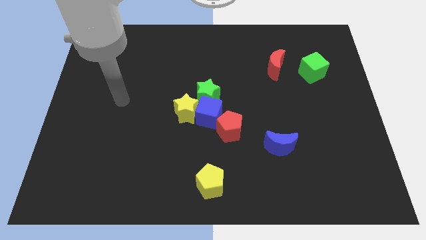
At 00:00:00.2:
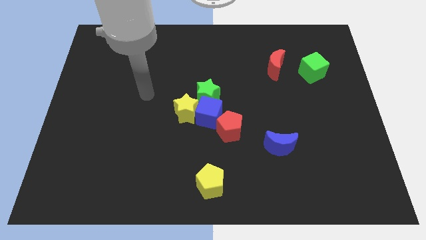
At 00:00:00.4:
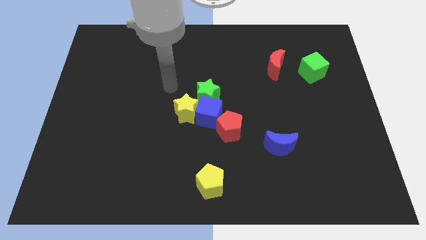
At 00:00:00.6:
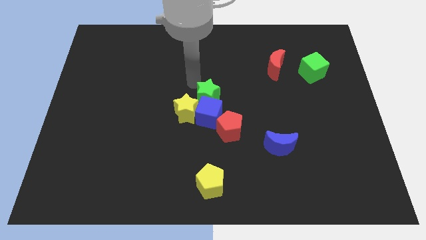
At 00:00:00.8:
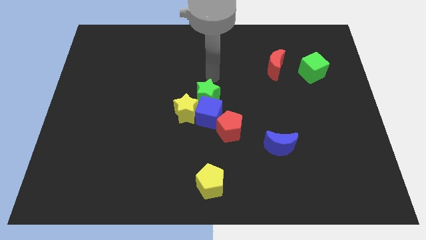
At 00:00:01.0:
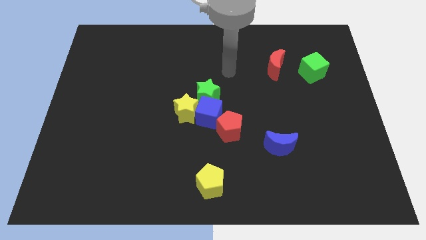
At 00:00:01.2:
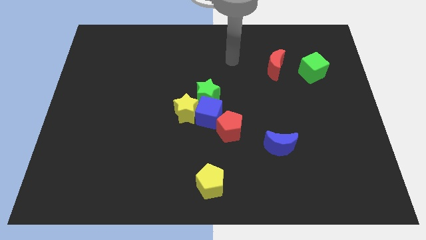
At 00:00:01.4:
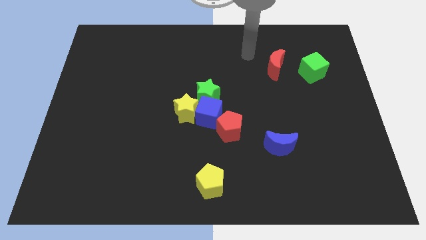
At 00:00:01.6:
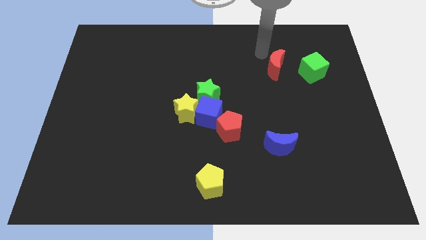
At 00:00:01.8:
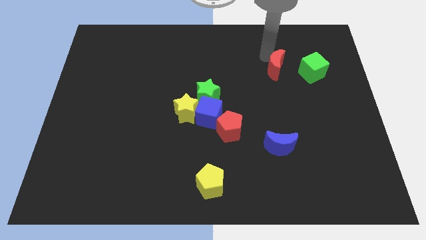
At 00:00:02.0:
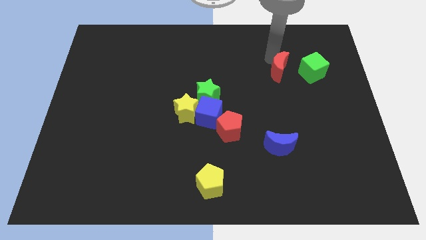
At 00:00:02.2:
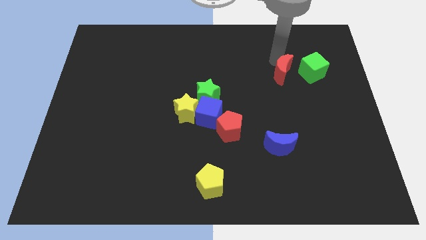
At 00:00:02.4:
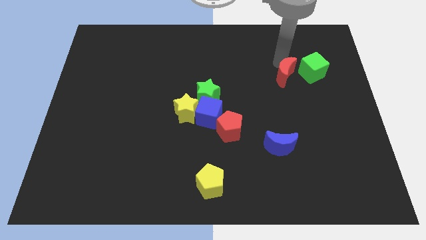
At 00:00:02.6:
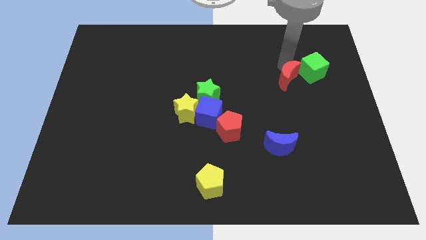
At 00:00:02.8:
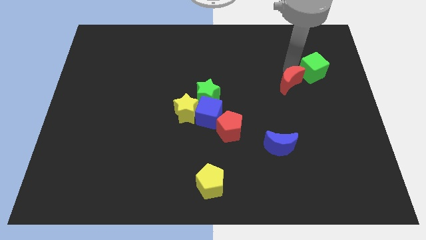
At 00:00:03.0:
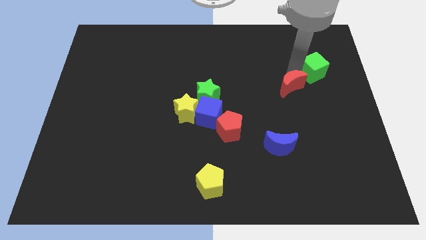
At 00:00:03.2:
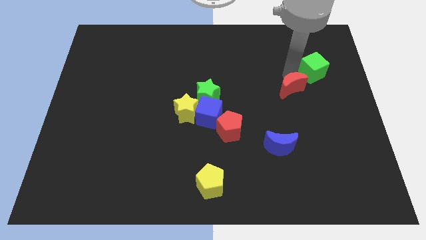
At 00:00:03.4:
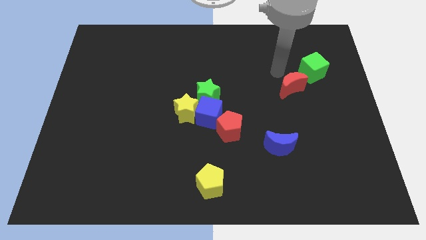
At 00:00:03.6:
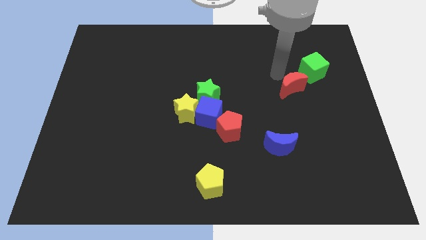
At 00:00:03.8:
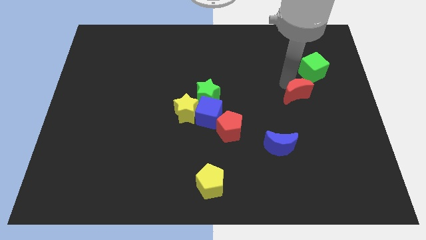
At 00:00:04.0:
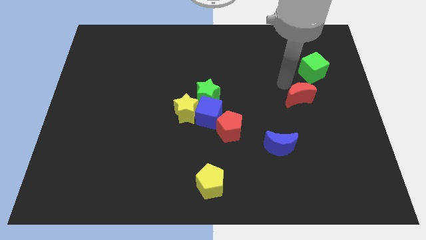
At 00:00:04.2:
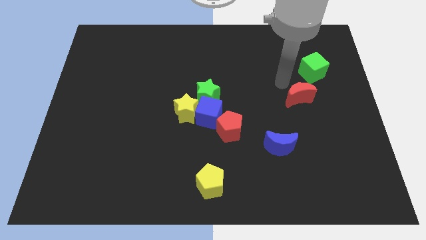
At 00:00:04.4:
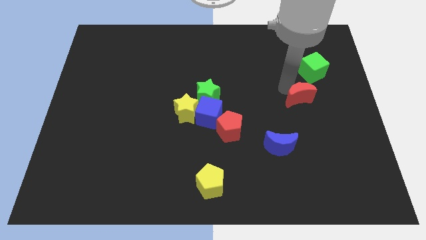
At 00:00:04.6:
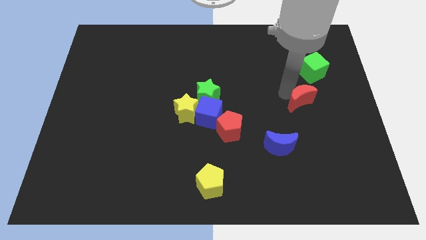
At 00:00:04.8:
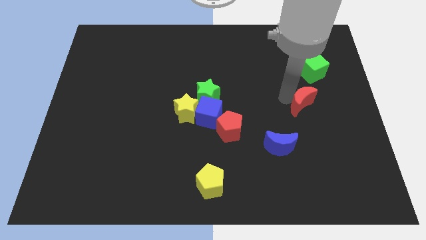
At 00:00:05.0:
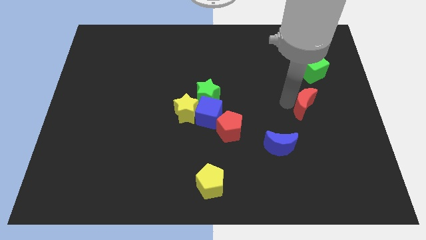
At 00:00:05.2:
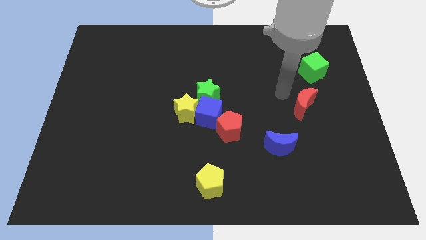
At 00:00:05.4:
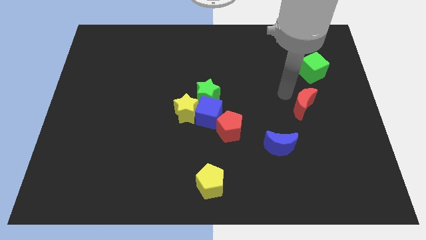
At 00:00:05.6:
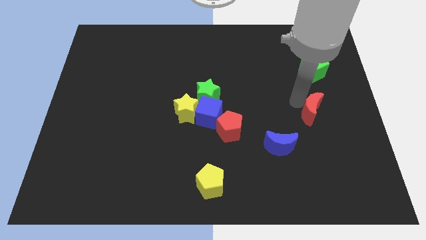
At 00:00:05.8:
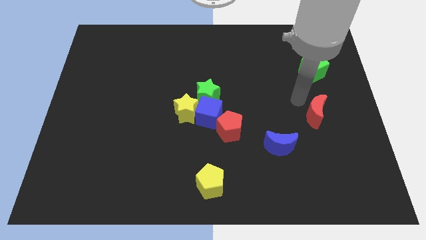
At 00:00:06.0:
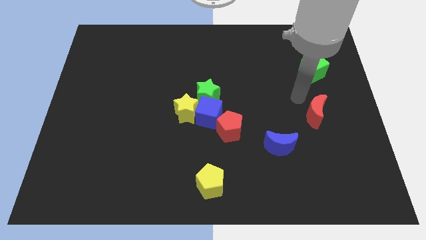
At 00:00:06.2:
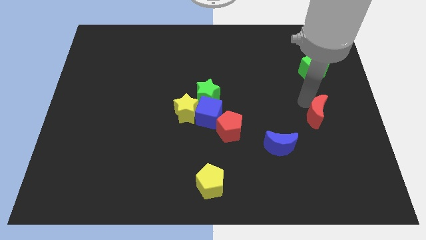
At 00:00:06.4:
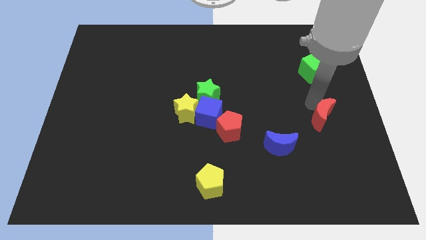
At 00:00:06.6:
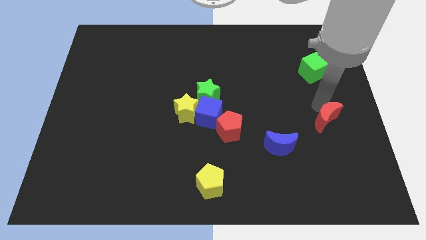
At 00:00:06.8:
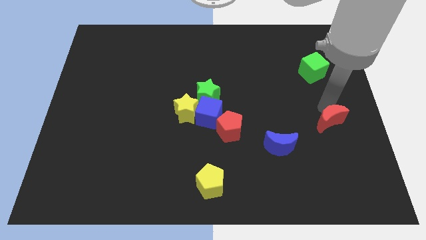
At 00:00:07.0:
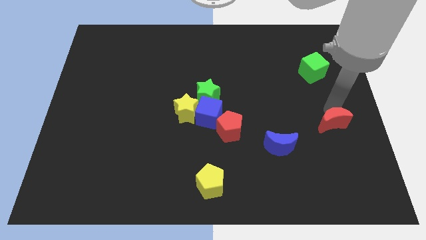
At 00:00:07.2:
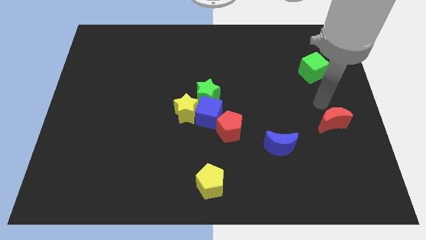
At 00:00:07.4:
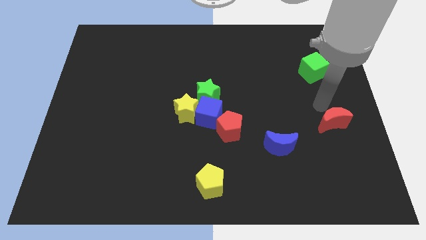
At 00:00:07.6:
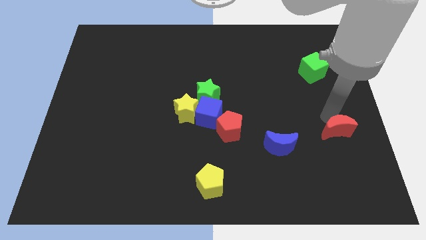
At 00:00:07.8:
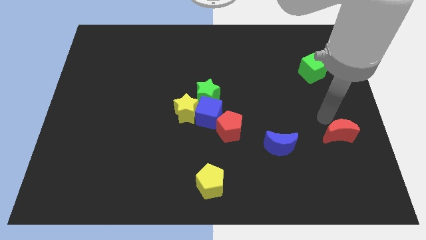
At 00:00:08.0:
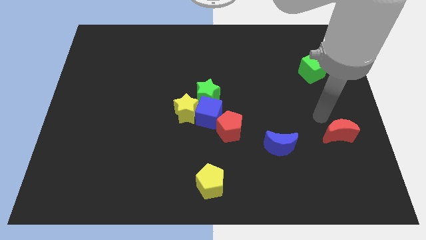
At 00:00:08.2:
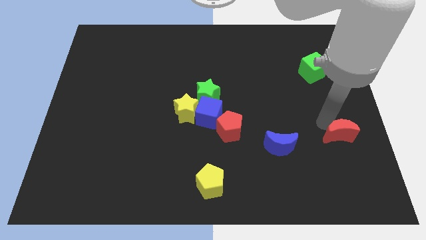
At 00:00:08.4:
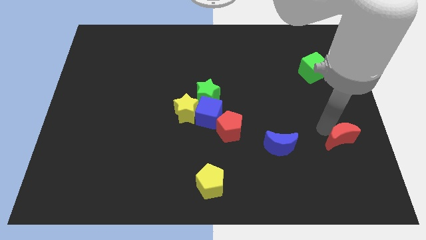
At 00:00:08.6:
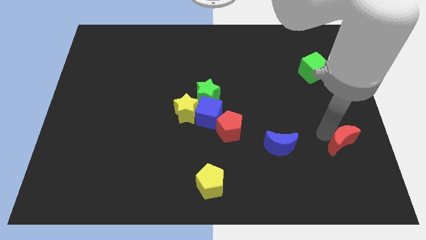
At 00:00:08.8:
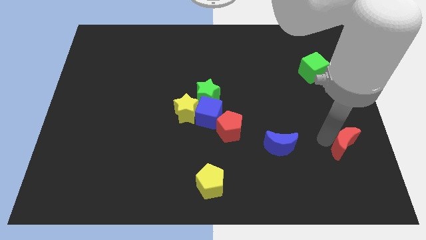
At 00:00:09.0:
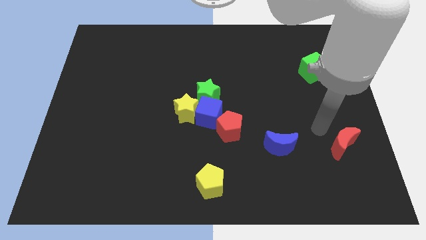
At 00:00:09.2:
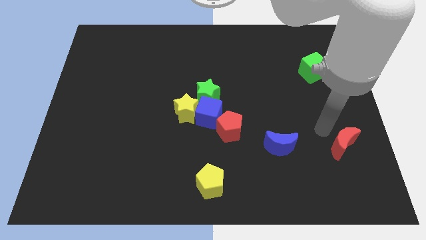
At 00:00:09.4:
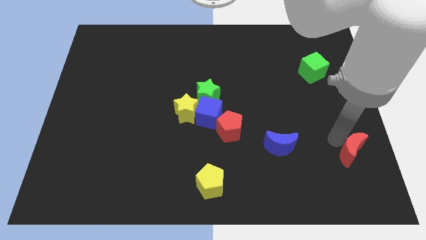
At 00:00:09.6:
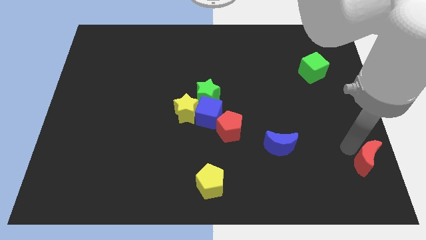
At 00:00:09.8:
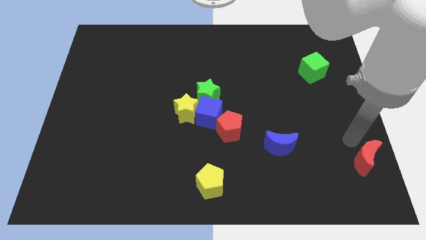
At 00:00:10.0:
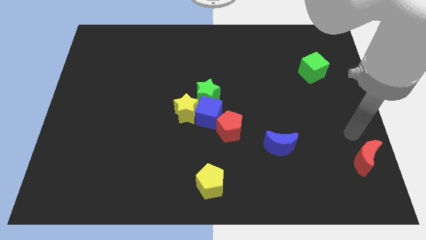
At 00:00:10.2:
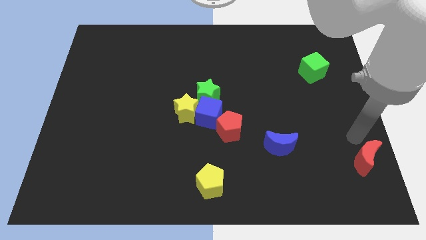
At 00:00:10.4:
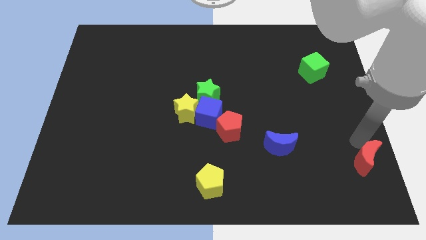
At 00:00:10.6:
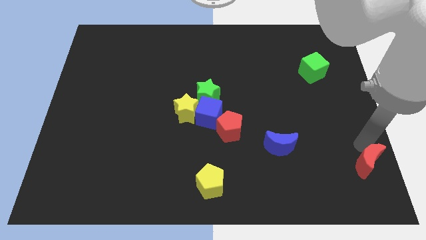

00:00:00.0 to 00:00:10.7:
slide the red moon to the bottom right
